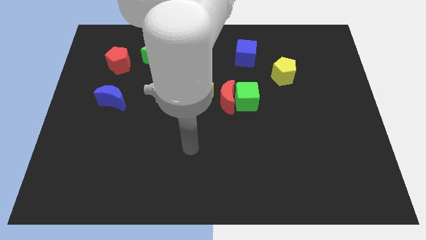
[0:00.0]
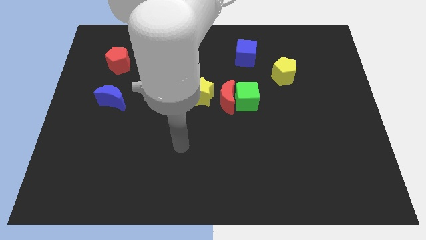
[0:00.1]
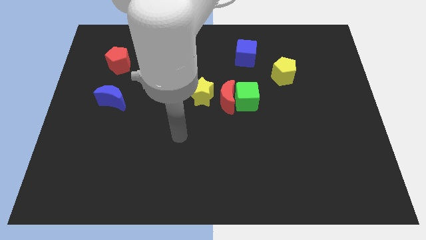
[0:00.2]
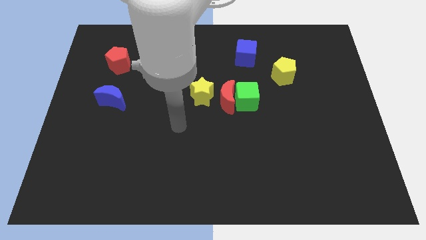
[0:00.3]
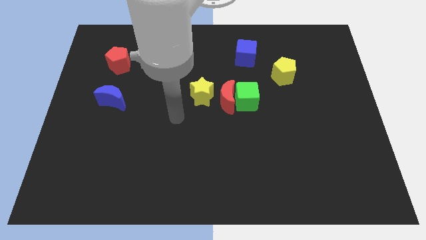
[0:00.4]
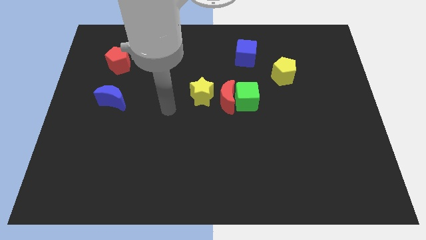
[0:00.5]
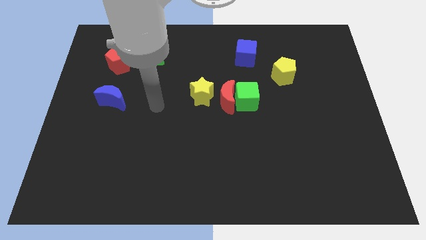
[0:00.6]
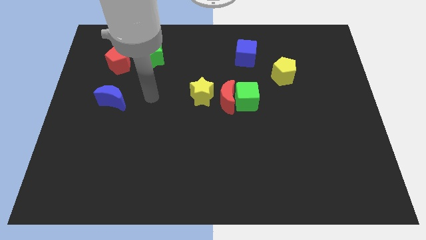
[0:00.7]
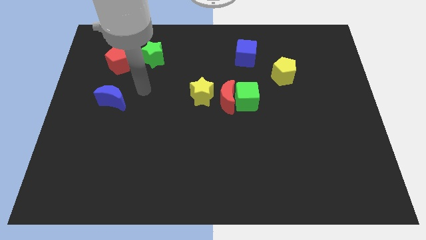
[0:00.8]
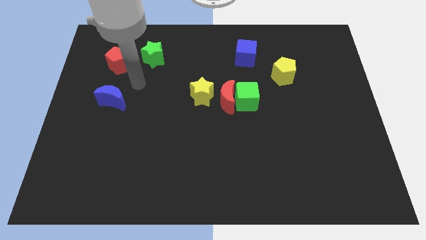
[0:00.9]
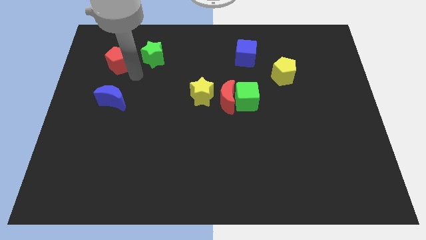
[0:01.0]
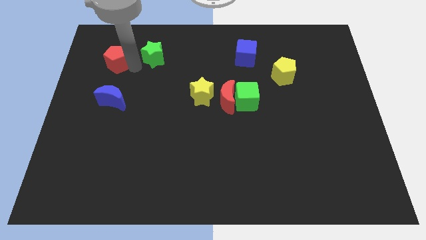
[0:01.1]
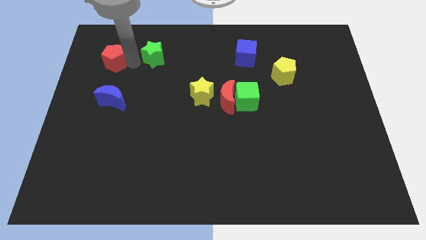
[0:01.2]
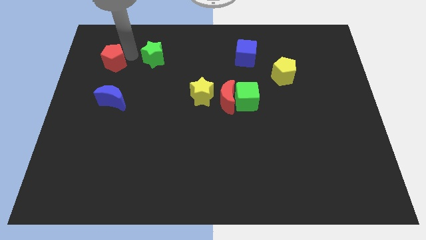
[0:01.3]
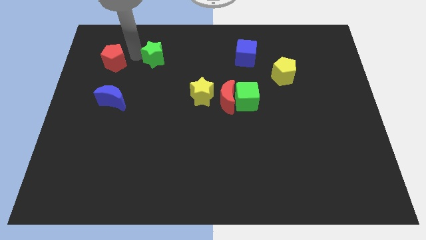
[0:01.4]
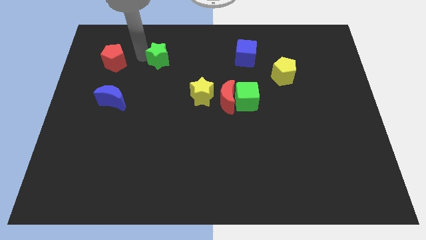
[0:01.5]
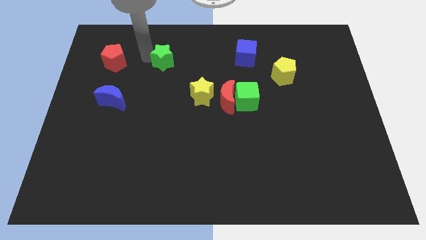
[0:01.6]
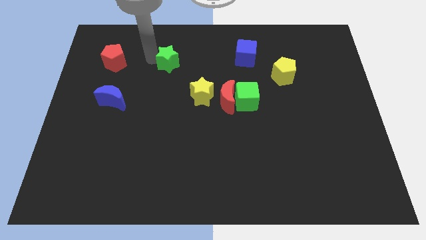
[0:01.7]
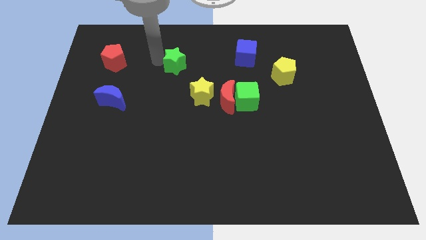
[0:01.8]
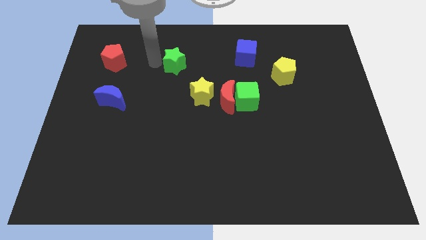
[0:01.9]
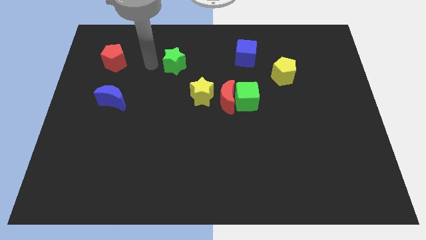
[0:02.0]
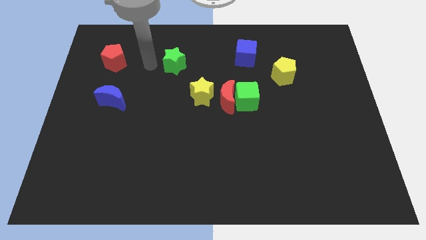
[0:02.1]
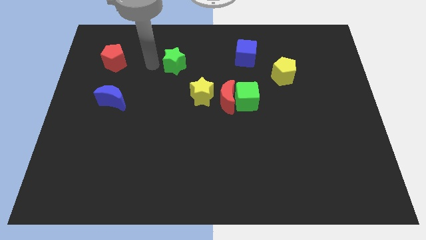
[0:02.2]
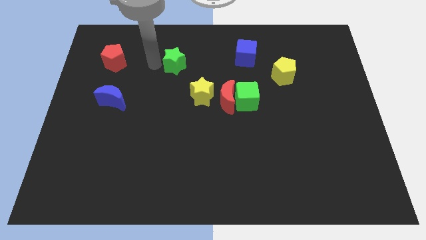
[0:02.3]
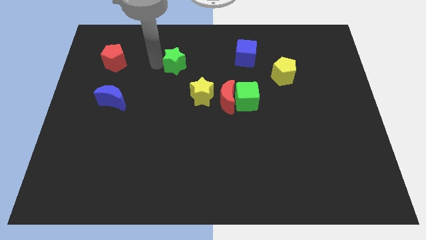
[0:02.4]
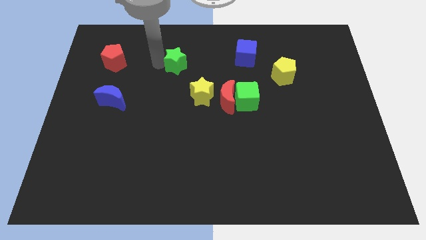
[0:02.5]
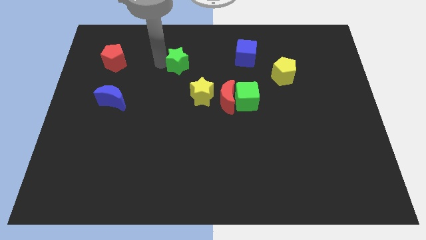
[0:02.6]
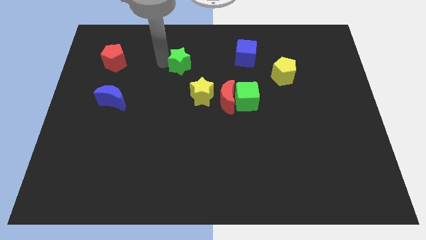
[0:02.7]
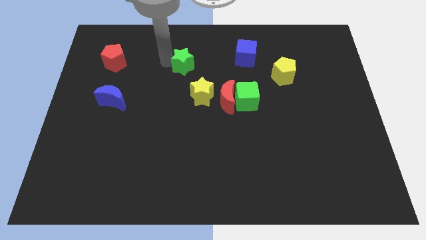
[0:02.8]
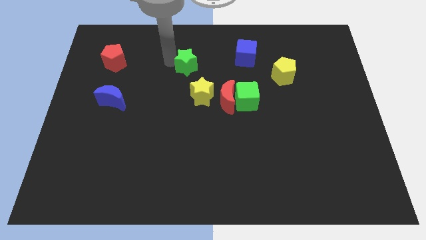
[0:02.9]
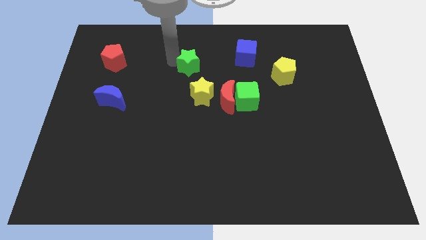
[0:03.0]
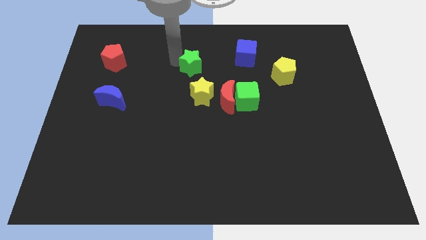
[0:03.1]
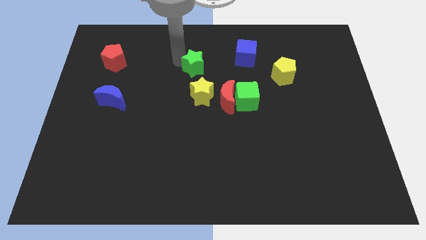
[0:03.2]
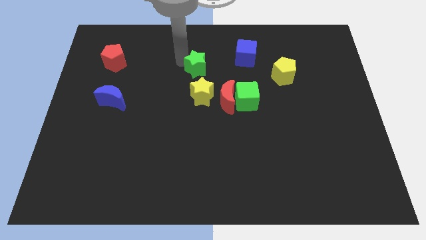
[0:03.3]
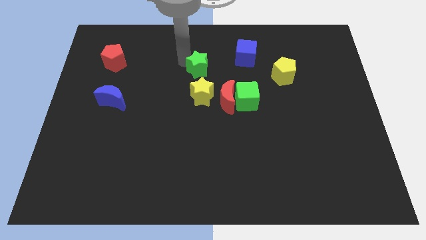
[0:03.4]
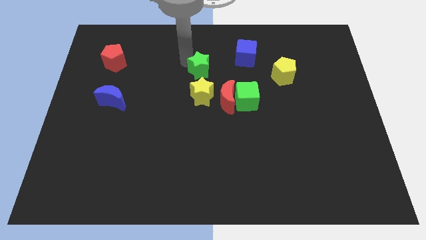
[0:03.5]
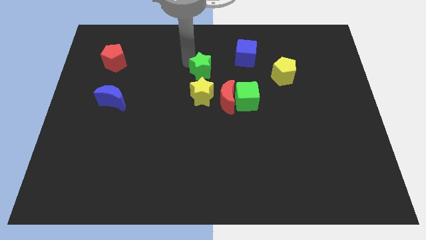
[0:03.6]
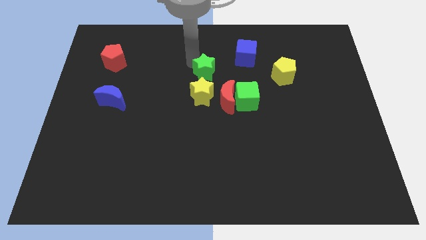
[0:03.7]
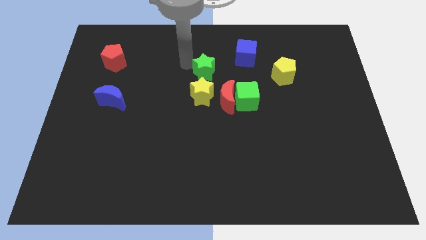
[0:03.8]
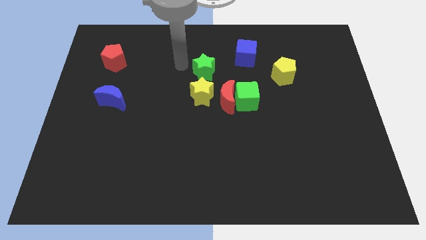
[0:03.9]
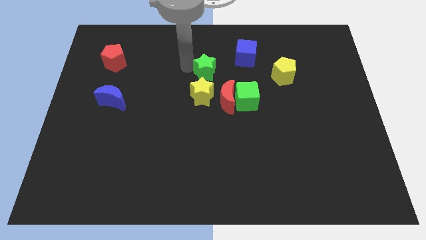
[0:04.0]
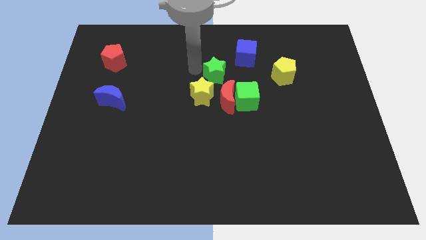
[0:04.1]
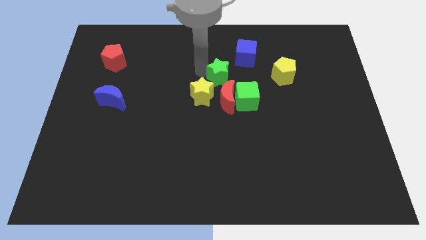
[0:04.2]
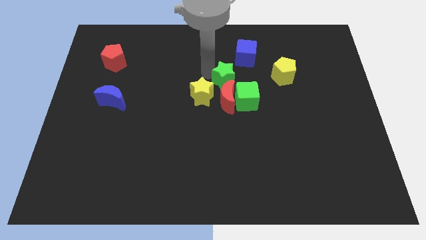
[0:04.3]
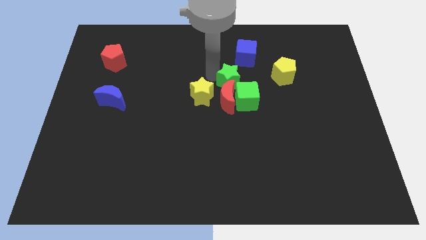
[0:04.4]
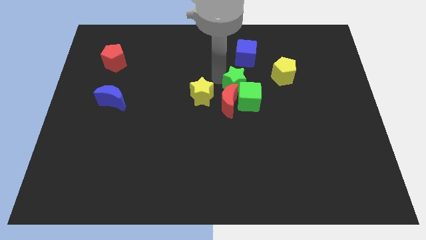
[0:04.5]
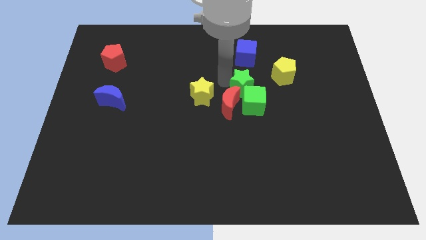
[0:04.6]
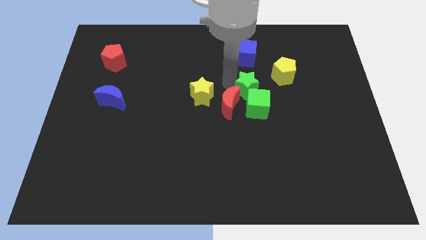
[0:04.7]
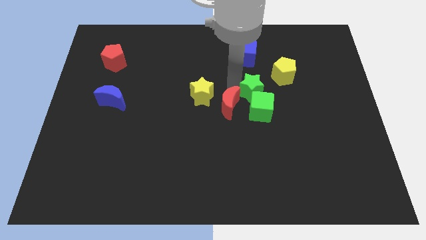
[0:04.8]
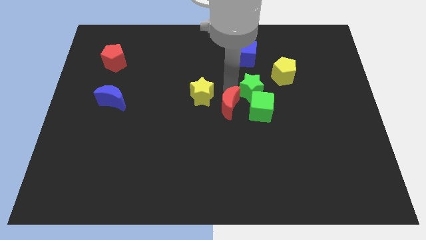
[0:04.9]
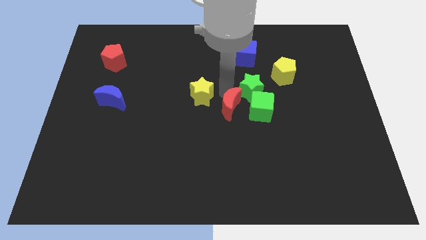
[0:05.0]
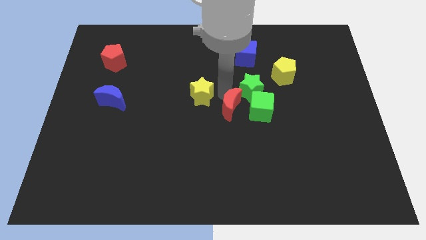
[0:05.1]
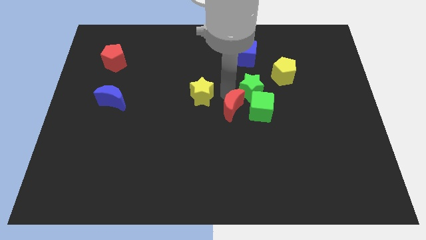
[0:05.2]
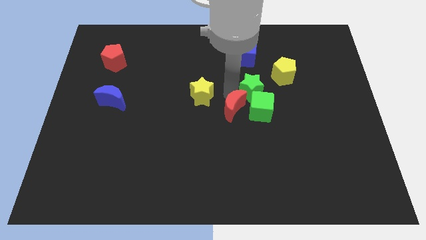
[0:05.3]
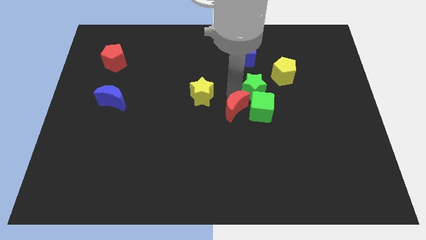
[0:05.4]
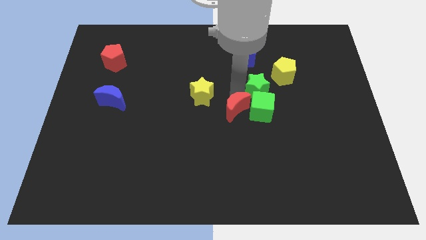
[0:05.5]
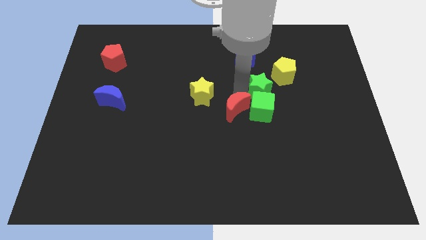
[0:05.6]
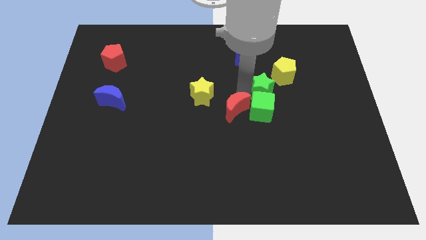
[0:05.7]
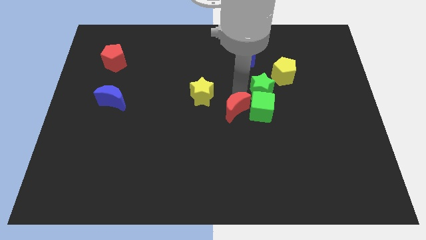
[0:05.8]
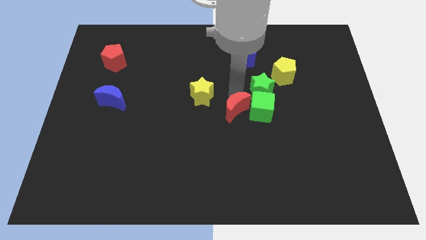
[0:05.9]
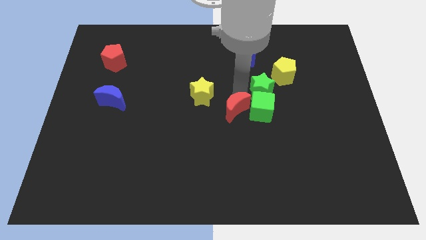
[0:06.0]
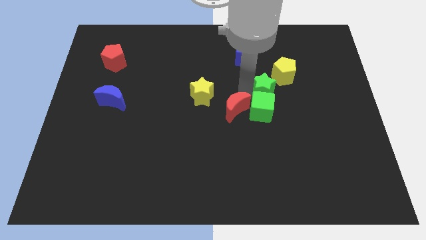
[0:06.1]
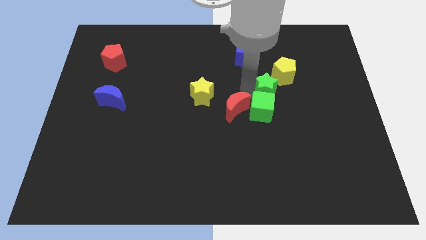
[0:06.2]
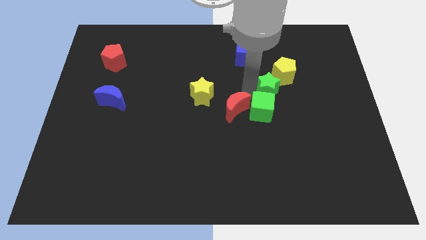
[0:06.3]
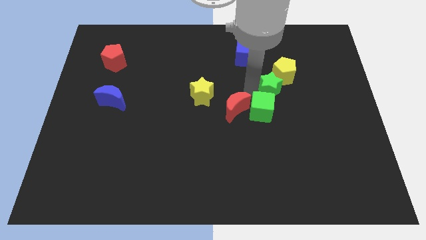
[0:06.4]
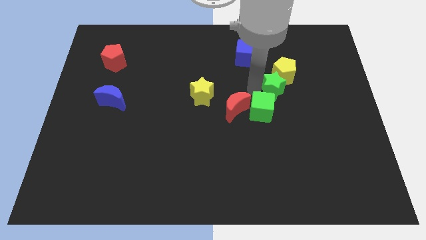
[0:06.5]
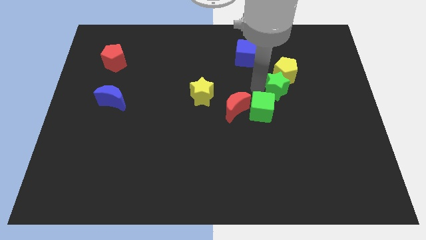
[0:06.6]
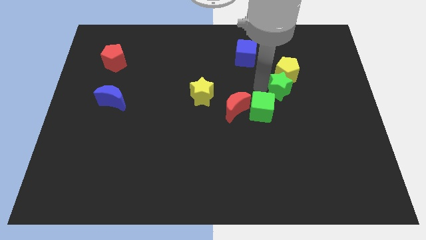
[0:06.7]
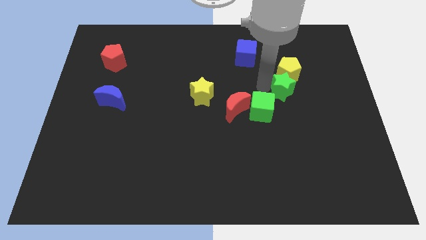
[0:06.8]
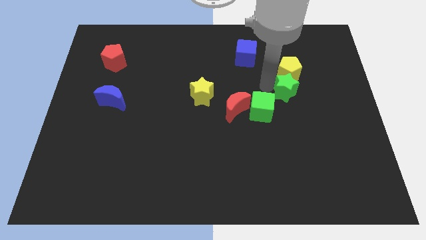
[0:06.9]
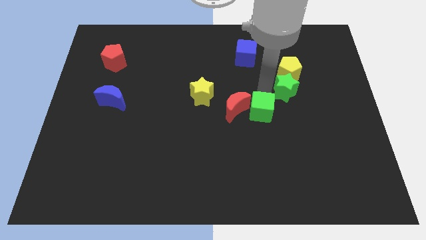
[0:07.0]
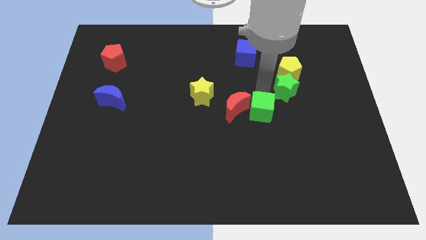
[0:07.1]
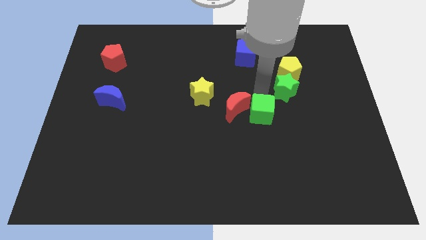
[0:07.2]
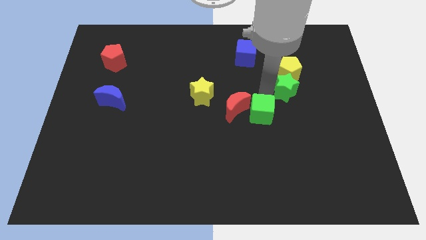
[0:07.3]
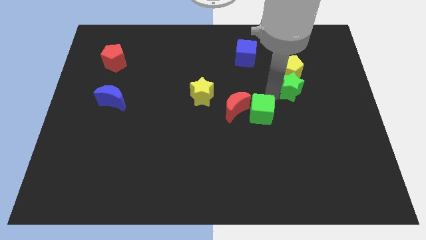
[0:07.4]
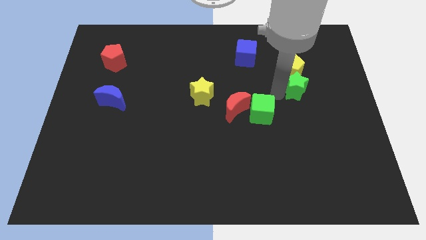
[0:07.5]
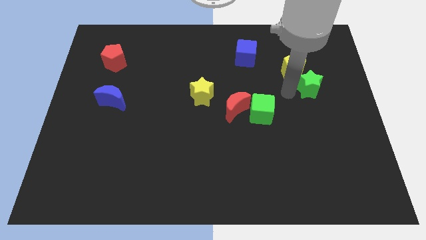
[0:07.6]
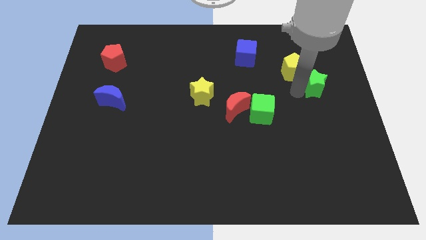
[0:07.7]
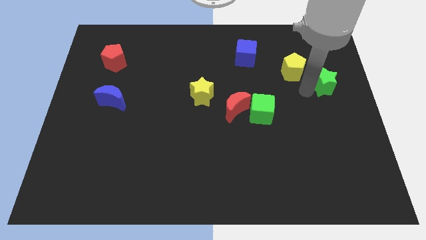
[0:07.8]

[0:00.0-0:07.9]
push the green star right of the yellow pentagon
